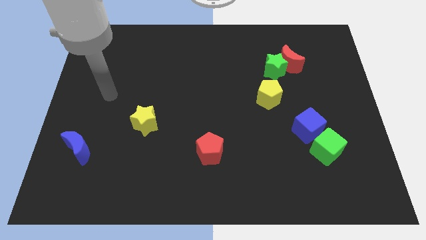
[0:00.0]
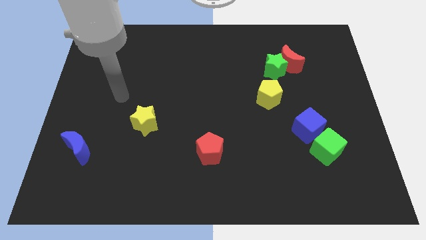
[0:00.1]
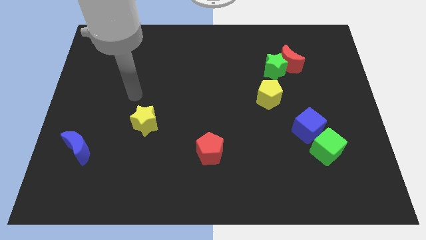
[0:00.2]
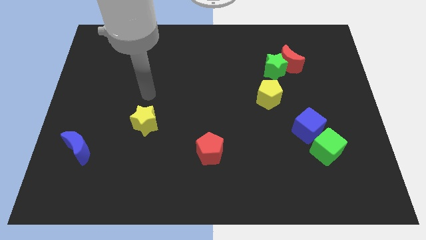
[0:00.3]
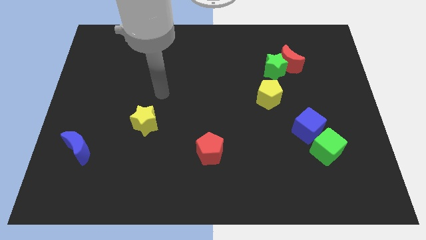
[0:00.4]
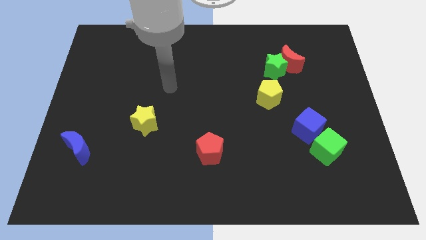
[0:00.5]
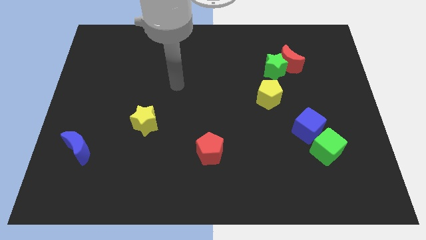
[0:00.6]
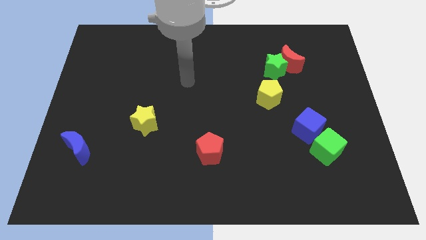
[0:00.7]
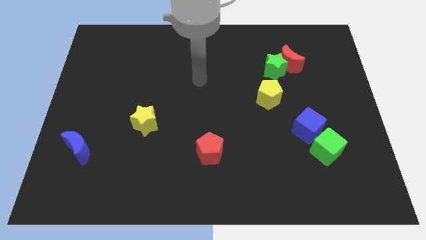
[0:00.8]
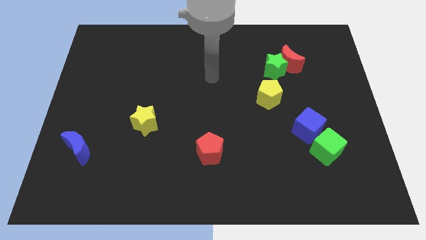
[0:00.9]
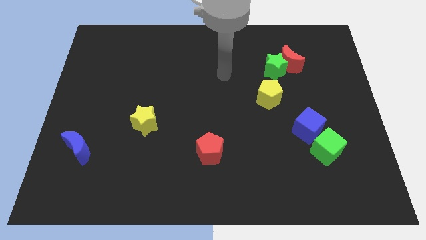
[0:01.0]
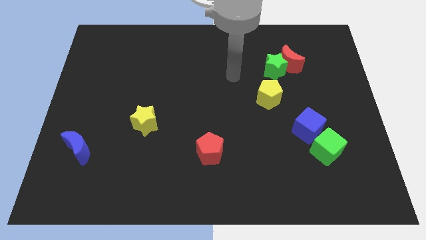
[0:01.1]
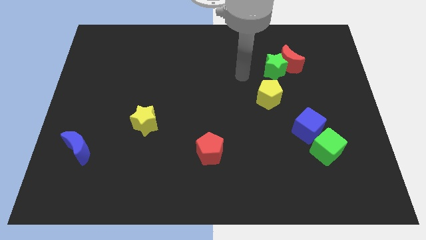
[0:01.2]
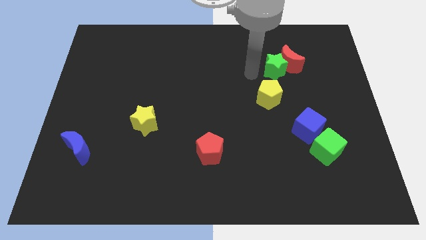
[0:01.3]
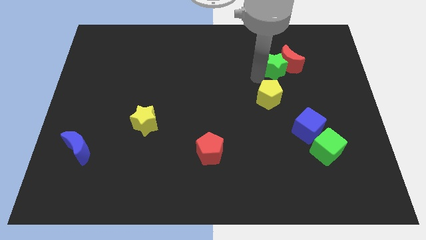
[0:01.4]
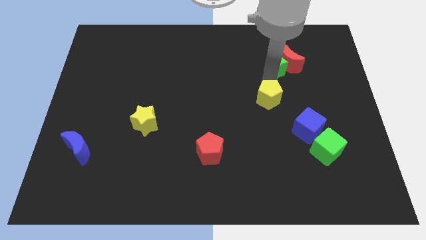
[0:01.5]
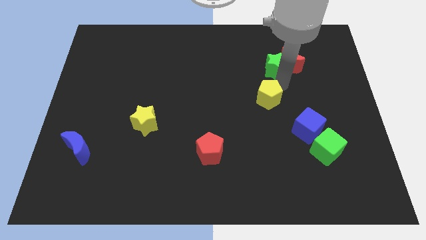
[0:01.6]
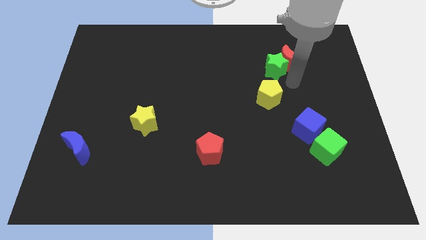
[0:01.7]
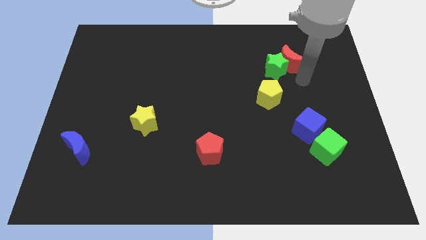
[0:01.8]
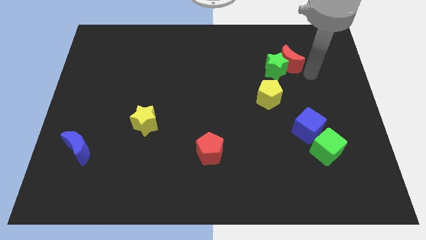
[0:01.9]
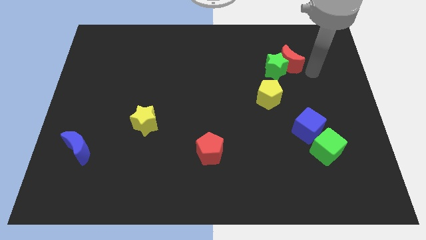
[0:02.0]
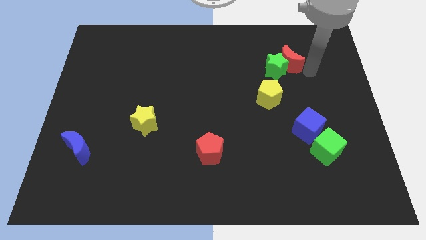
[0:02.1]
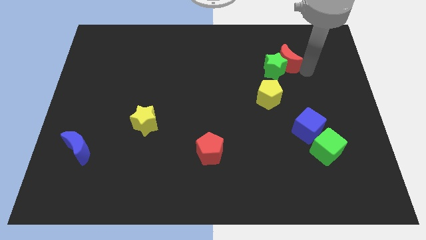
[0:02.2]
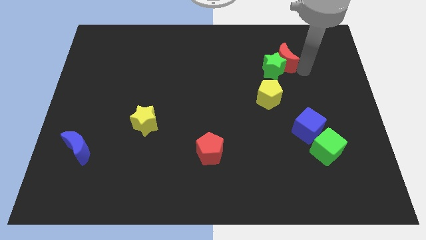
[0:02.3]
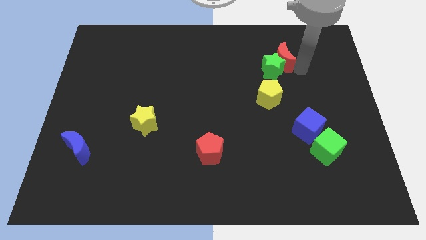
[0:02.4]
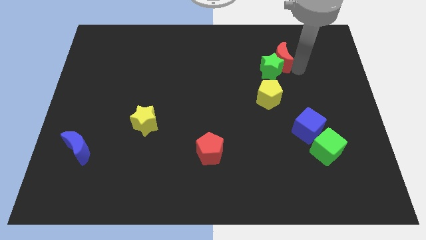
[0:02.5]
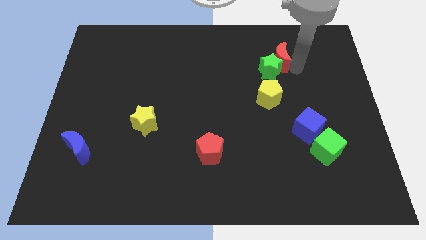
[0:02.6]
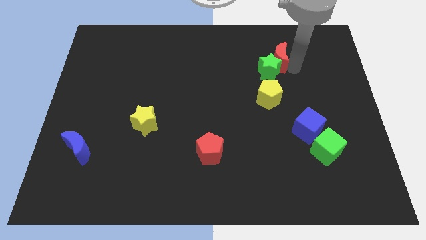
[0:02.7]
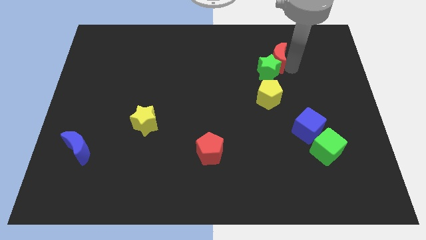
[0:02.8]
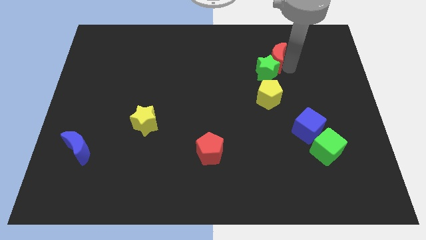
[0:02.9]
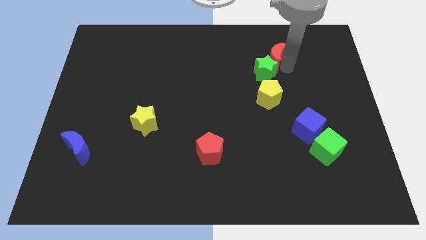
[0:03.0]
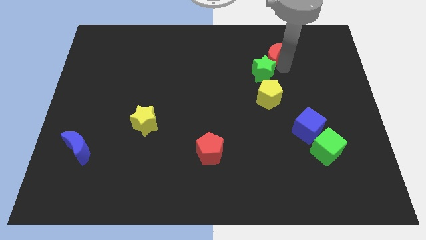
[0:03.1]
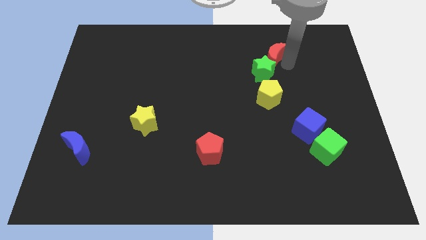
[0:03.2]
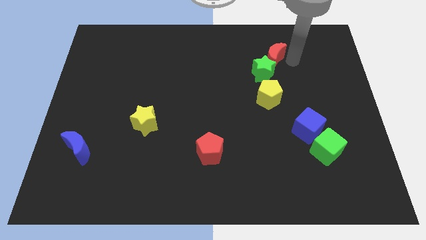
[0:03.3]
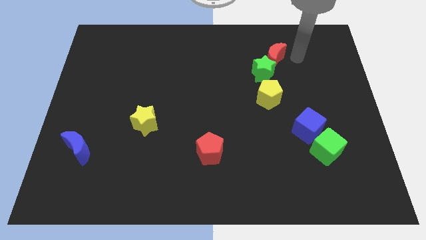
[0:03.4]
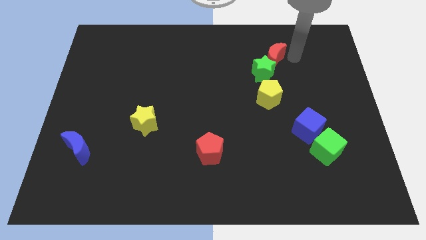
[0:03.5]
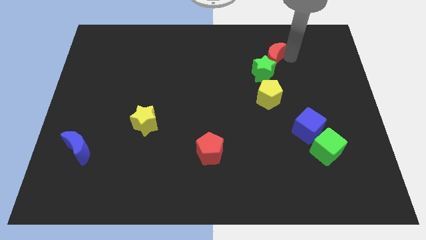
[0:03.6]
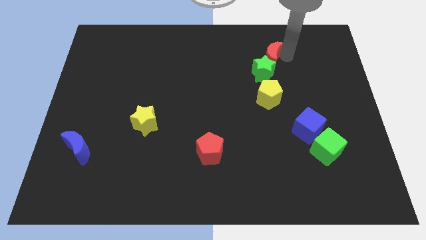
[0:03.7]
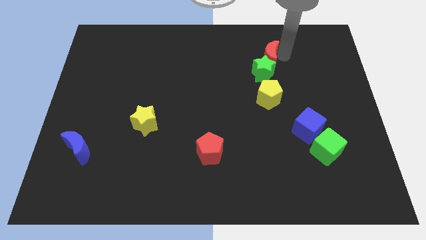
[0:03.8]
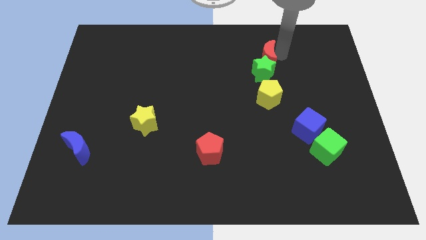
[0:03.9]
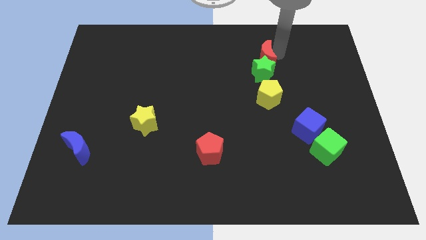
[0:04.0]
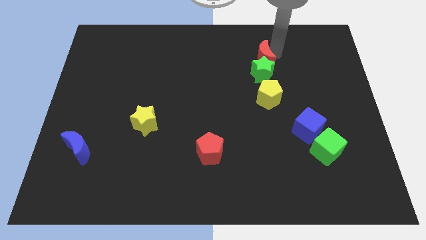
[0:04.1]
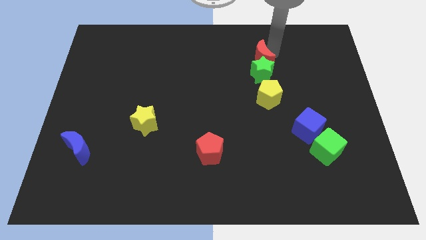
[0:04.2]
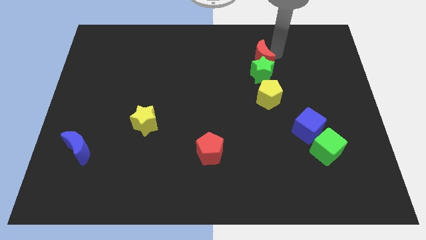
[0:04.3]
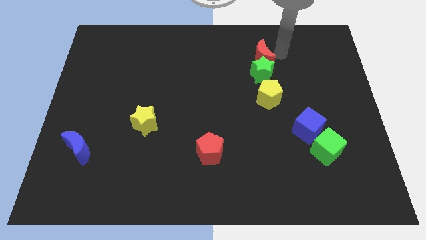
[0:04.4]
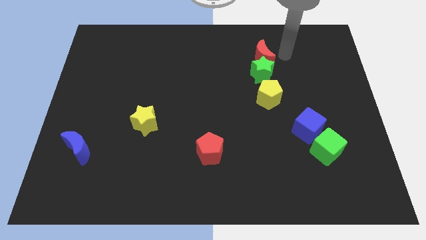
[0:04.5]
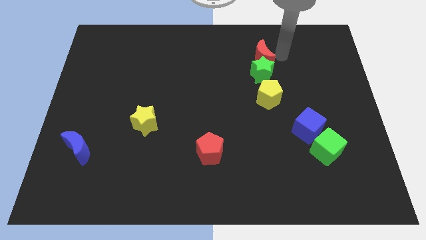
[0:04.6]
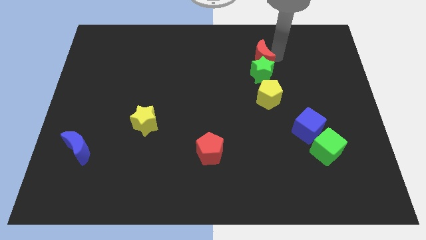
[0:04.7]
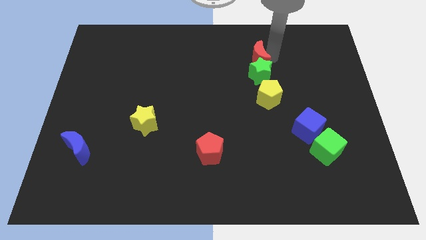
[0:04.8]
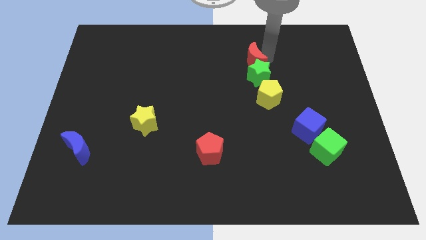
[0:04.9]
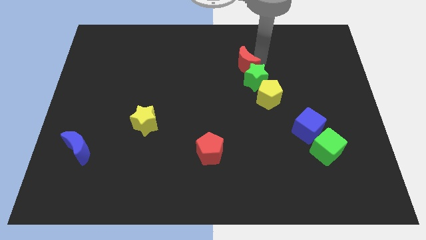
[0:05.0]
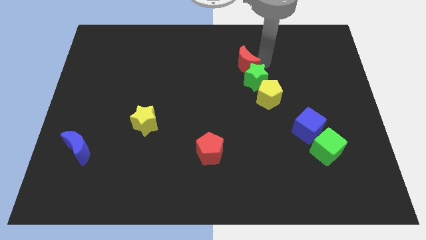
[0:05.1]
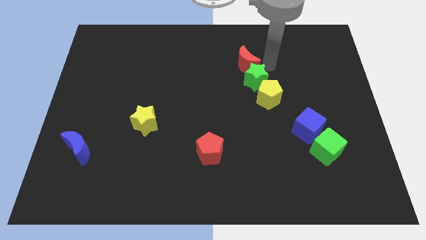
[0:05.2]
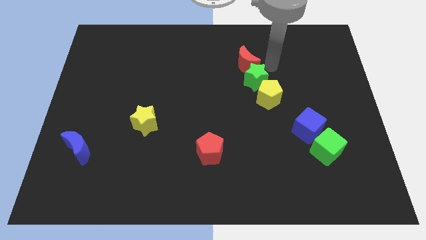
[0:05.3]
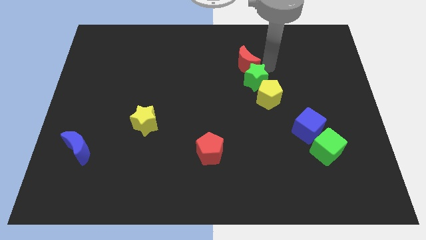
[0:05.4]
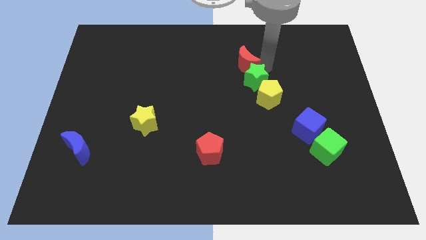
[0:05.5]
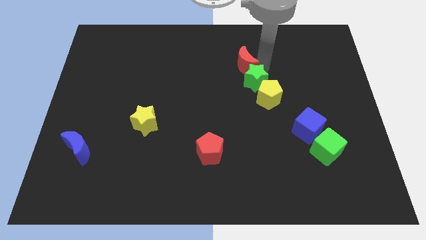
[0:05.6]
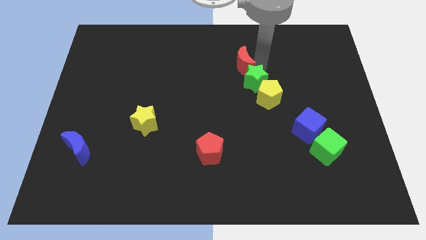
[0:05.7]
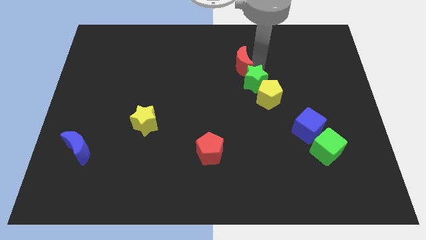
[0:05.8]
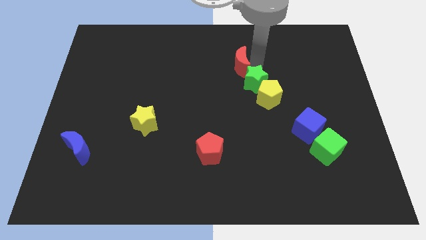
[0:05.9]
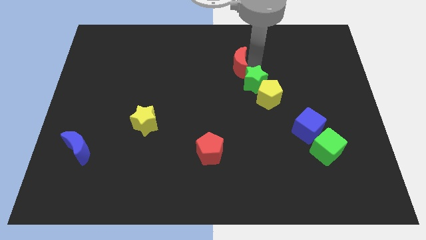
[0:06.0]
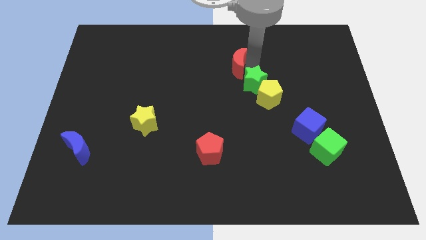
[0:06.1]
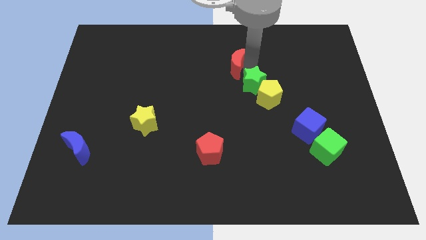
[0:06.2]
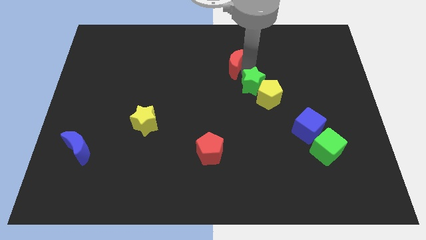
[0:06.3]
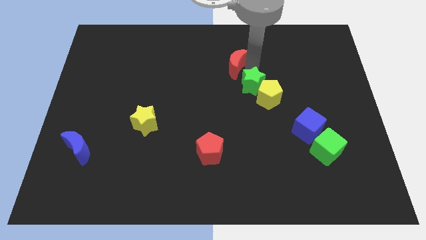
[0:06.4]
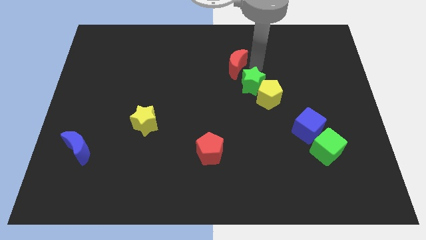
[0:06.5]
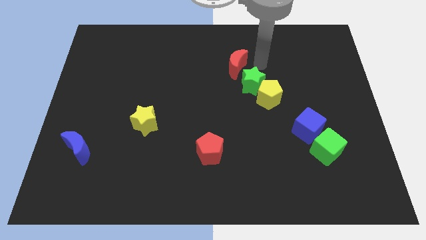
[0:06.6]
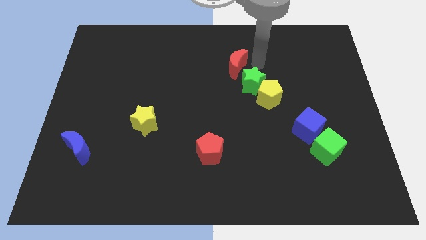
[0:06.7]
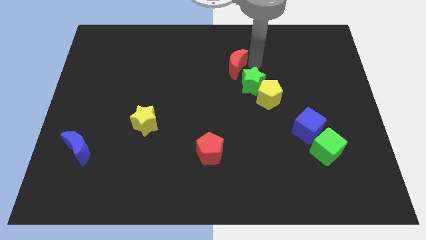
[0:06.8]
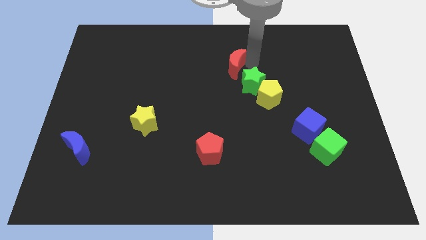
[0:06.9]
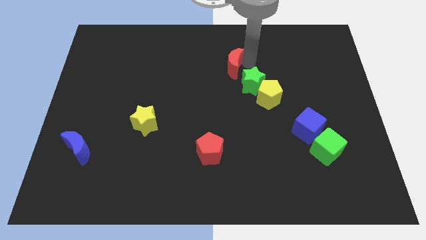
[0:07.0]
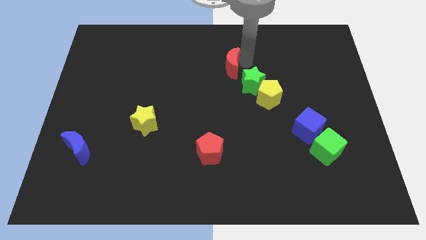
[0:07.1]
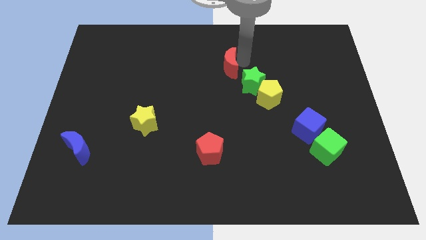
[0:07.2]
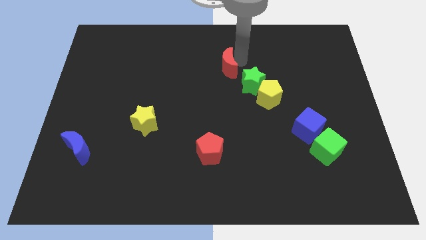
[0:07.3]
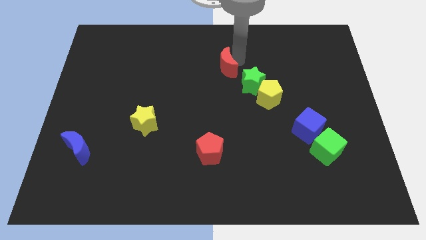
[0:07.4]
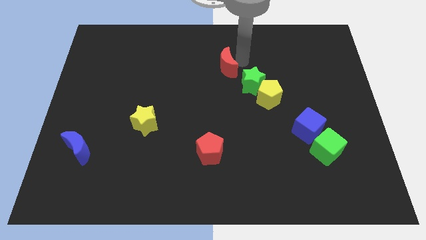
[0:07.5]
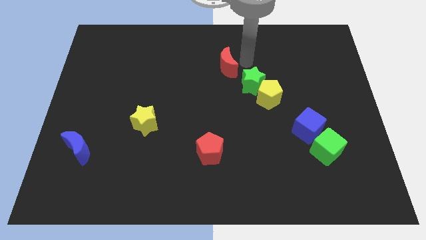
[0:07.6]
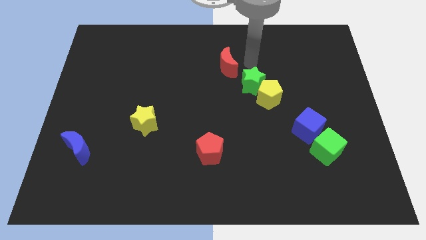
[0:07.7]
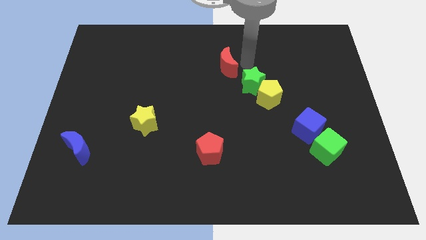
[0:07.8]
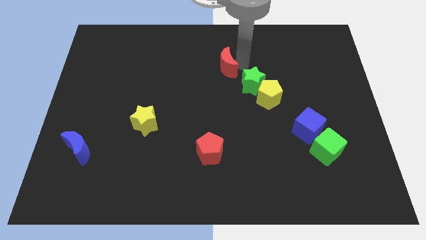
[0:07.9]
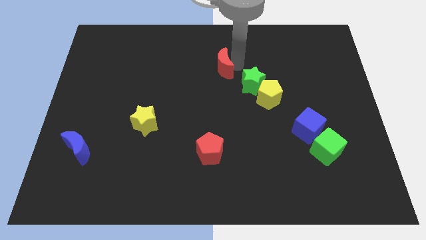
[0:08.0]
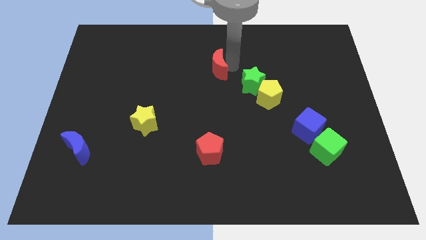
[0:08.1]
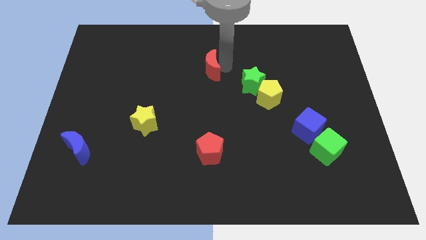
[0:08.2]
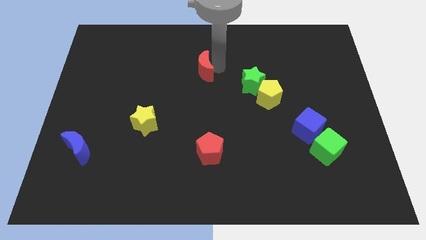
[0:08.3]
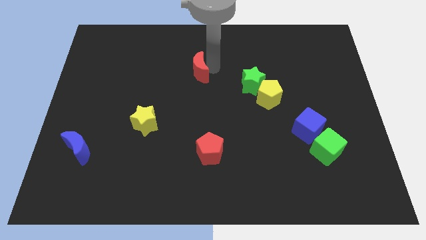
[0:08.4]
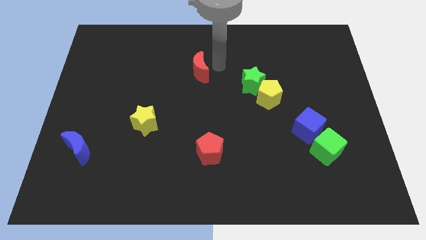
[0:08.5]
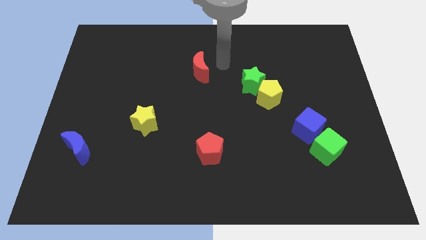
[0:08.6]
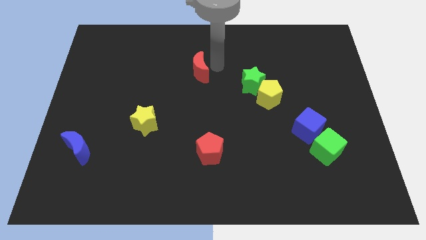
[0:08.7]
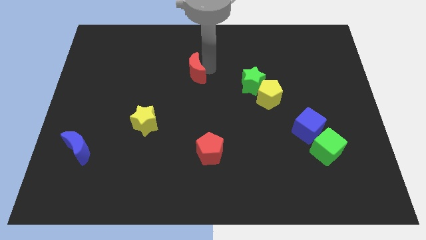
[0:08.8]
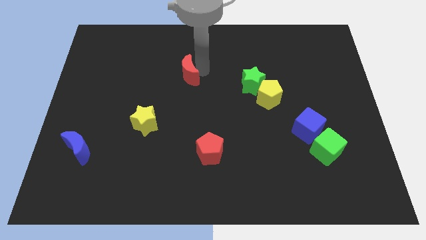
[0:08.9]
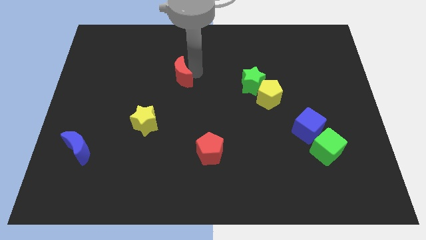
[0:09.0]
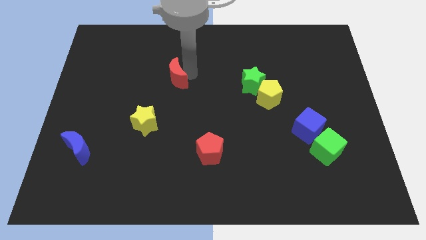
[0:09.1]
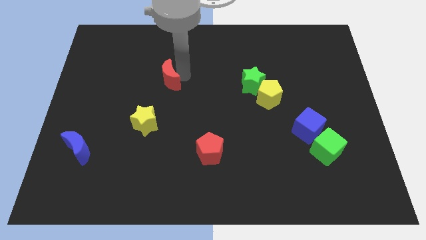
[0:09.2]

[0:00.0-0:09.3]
put the red moon to the top side of the yellow star
